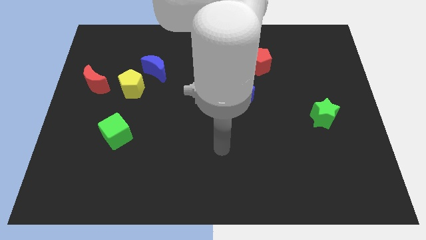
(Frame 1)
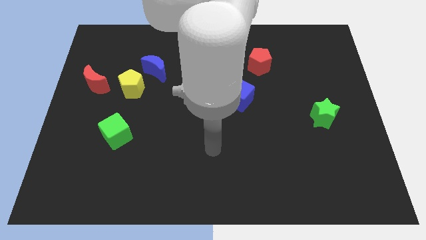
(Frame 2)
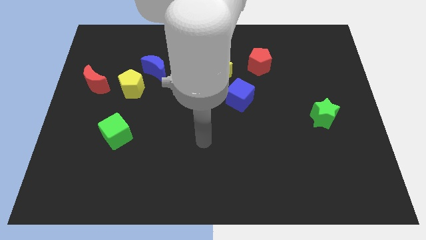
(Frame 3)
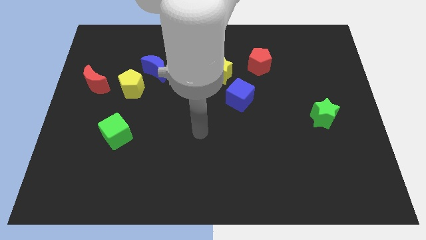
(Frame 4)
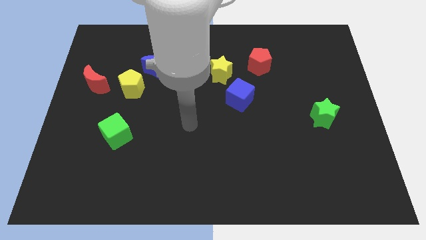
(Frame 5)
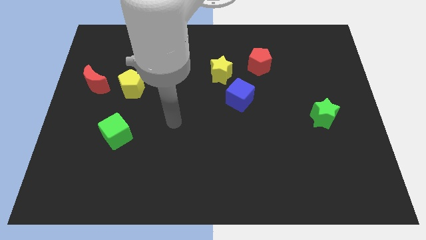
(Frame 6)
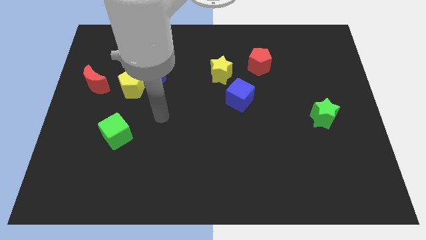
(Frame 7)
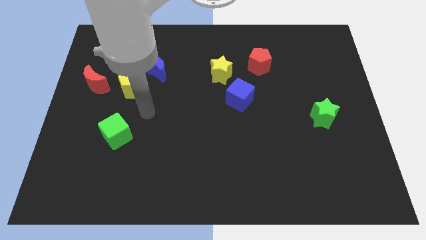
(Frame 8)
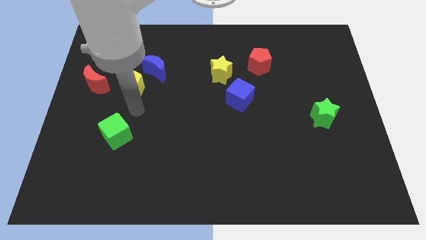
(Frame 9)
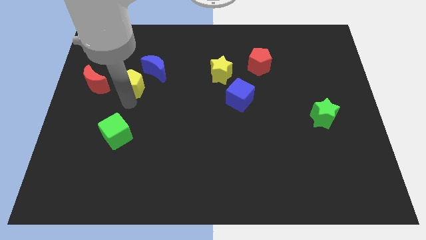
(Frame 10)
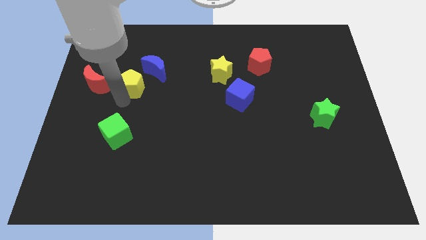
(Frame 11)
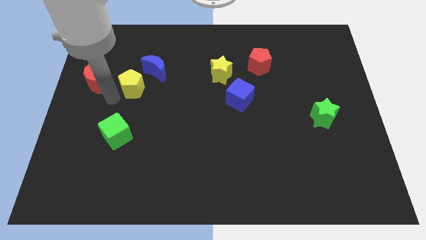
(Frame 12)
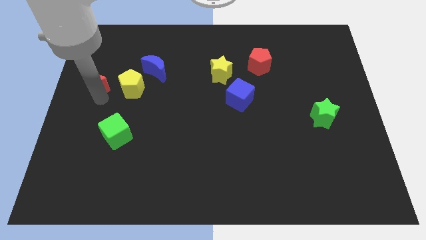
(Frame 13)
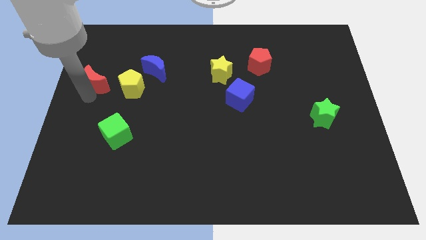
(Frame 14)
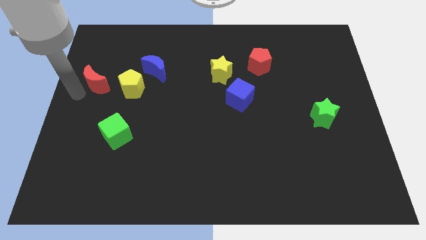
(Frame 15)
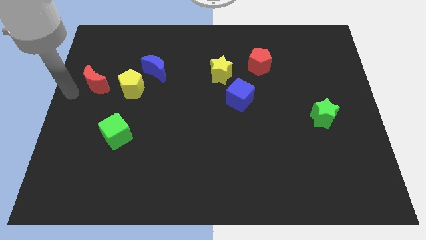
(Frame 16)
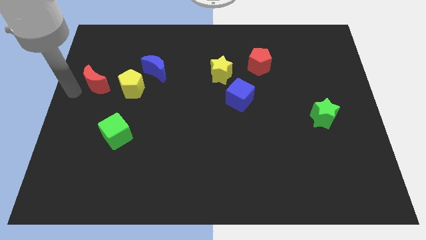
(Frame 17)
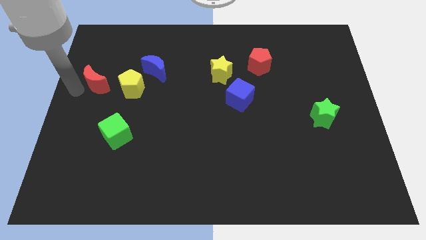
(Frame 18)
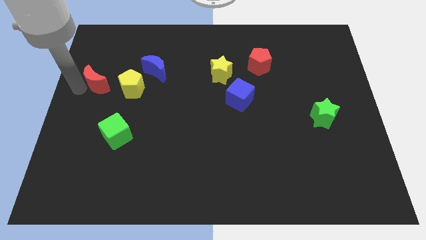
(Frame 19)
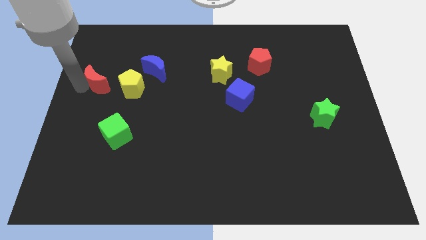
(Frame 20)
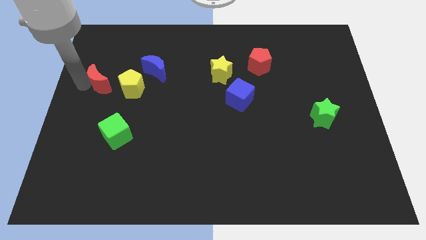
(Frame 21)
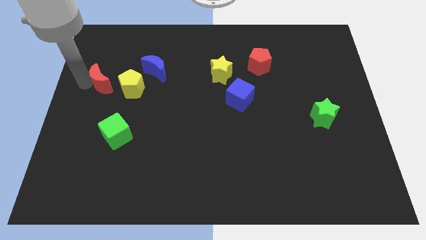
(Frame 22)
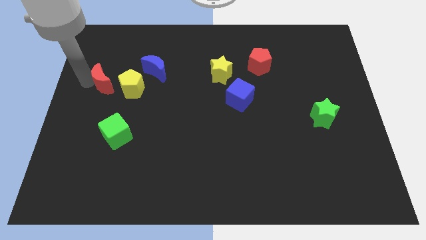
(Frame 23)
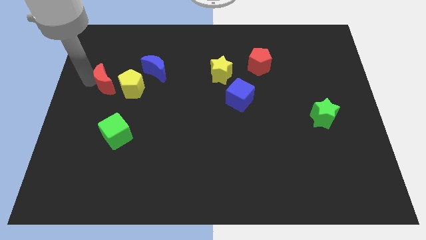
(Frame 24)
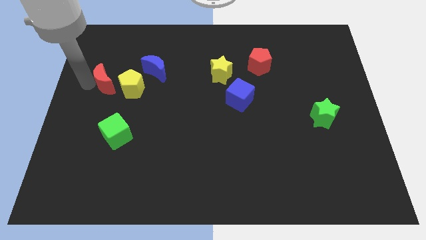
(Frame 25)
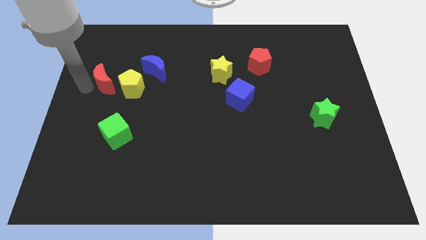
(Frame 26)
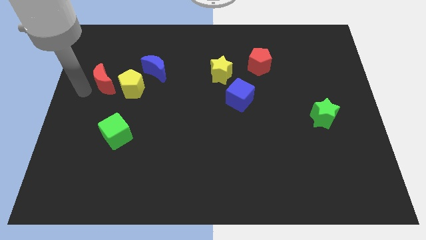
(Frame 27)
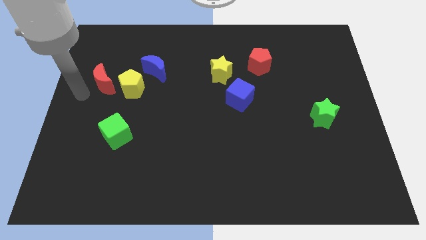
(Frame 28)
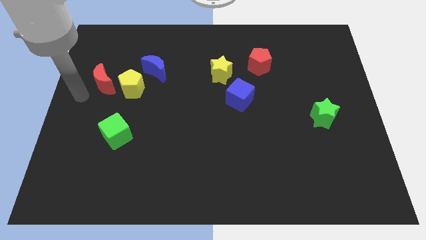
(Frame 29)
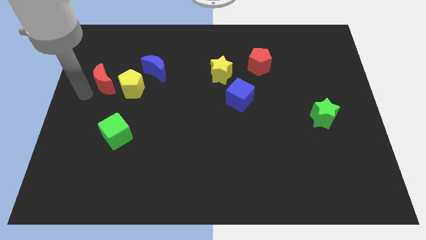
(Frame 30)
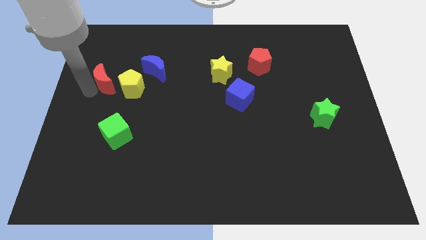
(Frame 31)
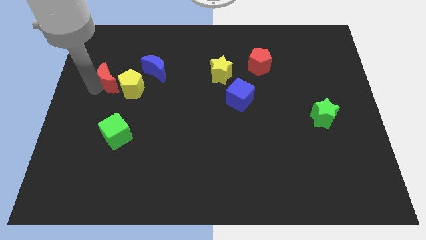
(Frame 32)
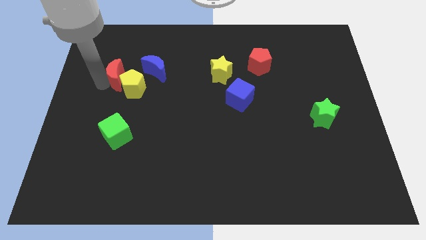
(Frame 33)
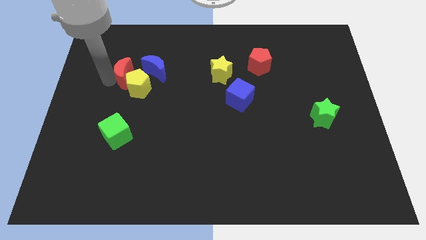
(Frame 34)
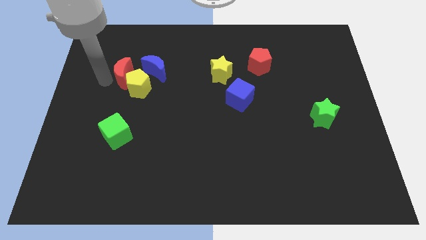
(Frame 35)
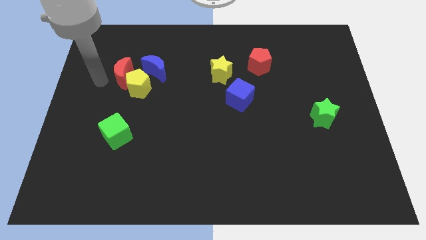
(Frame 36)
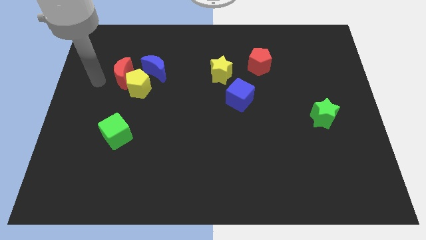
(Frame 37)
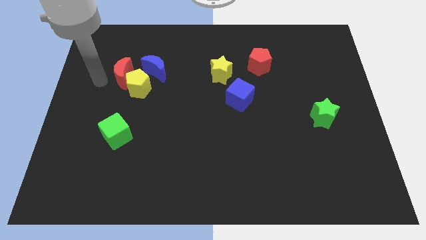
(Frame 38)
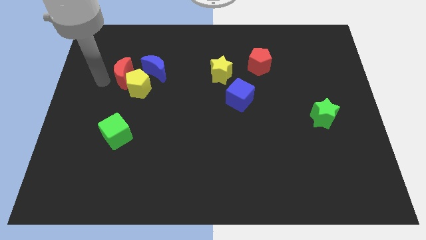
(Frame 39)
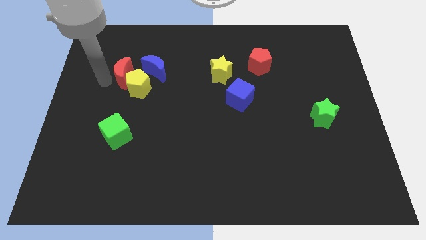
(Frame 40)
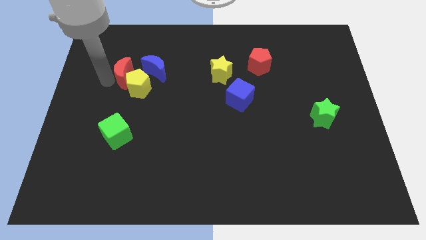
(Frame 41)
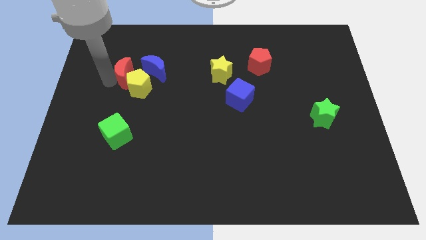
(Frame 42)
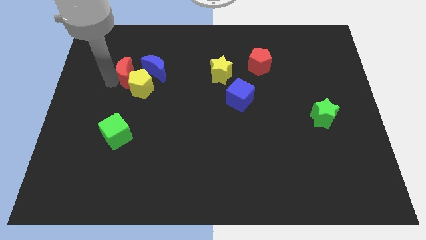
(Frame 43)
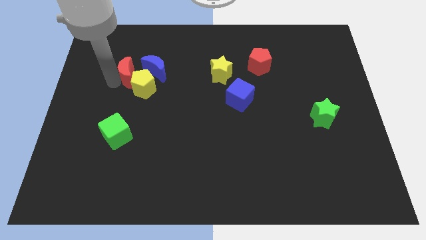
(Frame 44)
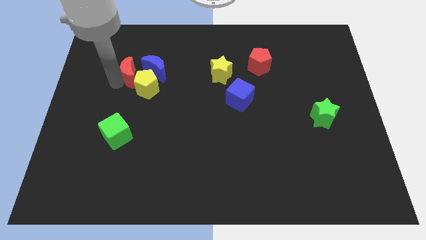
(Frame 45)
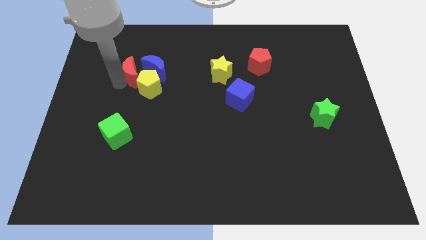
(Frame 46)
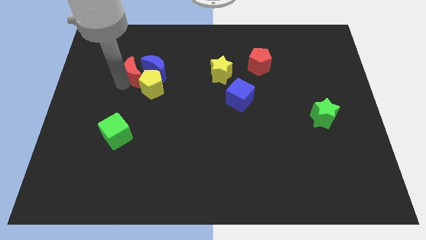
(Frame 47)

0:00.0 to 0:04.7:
put the red moon to the blue moon

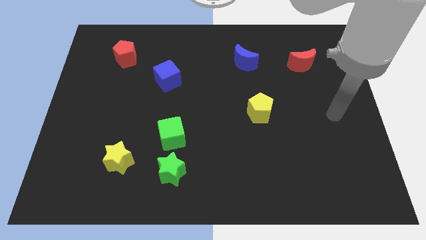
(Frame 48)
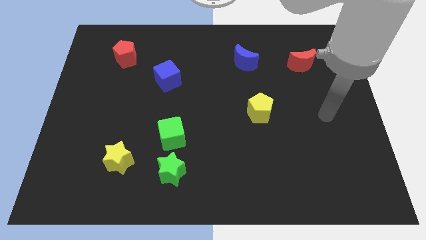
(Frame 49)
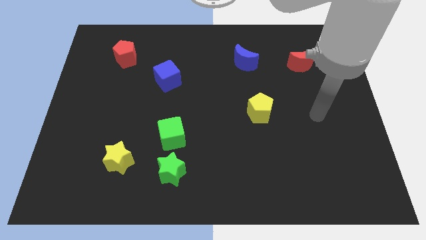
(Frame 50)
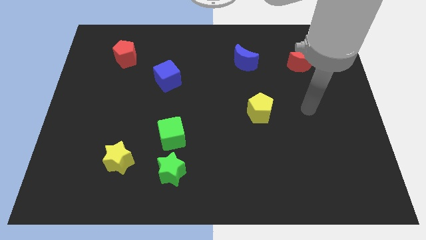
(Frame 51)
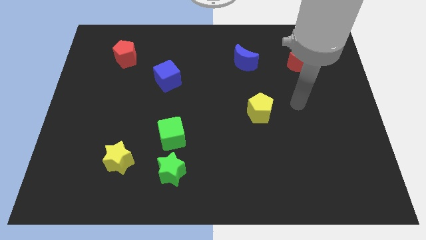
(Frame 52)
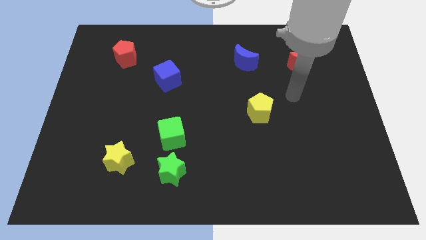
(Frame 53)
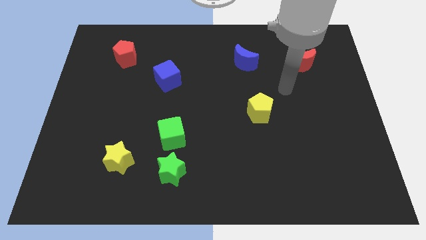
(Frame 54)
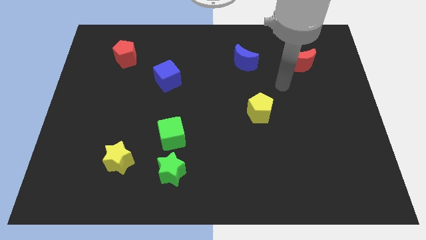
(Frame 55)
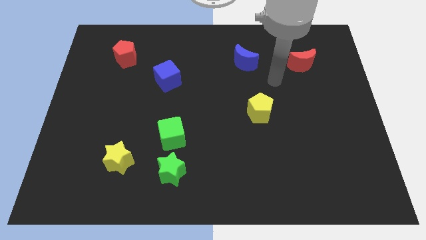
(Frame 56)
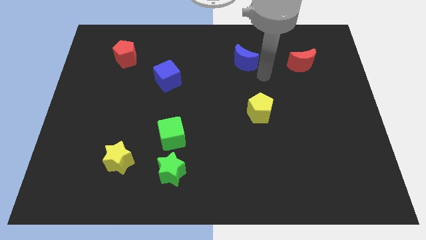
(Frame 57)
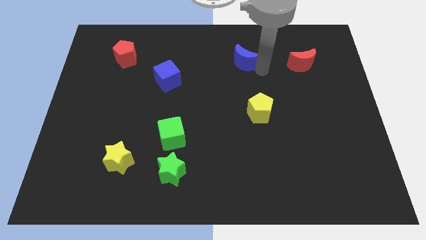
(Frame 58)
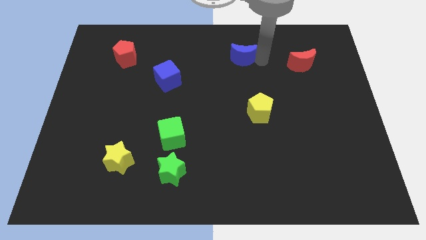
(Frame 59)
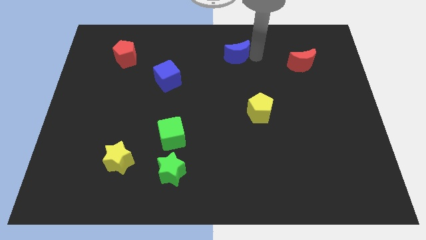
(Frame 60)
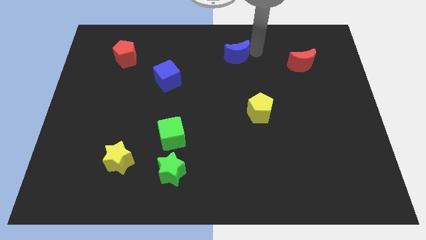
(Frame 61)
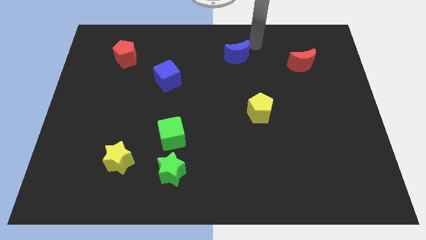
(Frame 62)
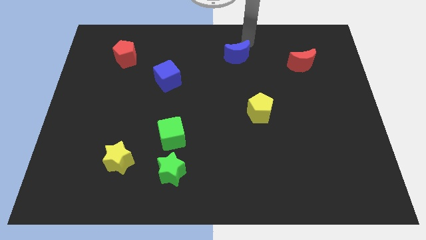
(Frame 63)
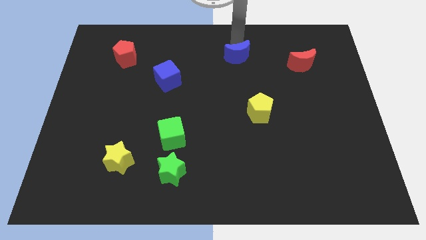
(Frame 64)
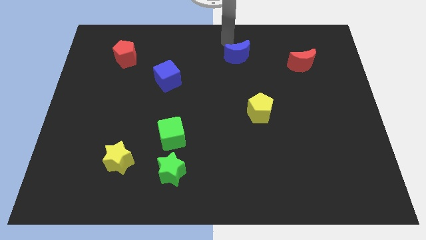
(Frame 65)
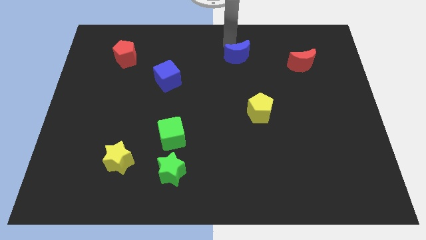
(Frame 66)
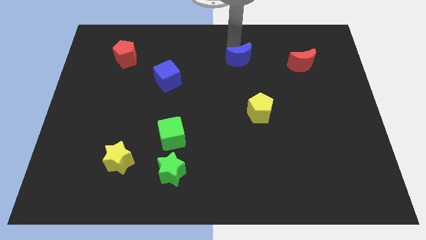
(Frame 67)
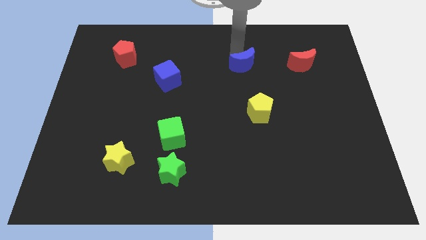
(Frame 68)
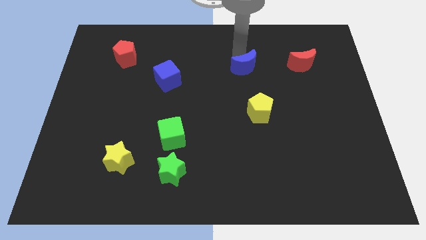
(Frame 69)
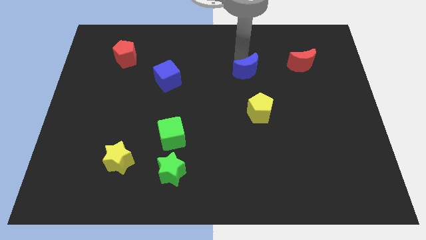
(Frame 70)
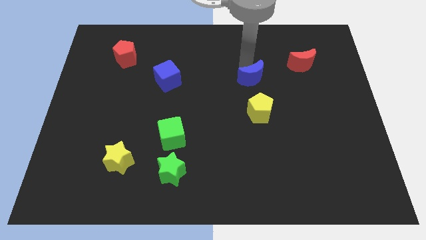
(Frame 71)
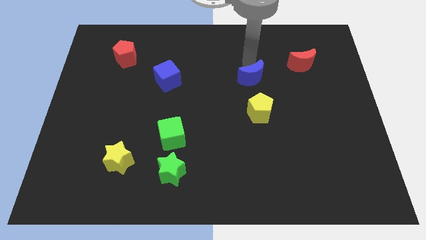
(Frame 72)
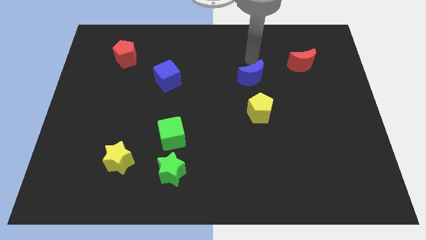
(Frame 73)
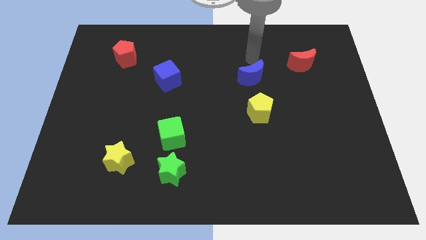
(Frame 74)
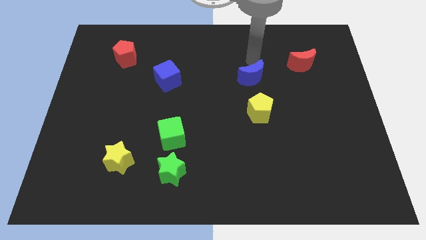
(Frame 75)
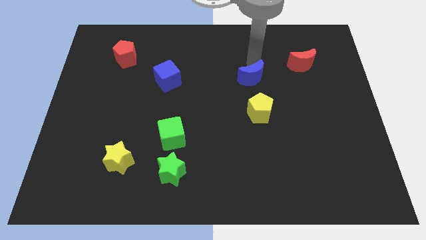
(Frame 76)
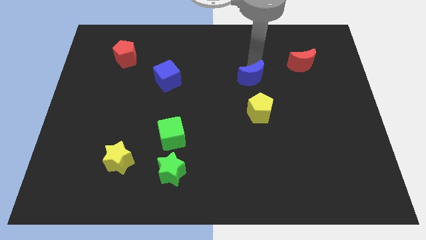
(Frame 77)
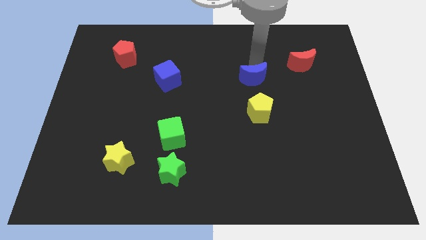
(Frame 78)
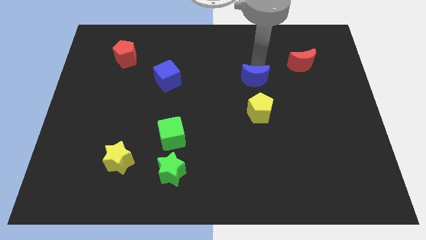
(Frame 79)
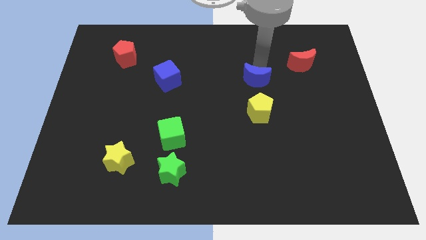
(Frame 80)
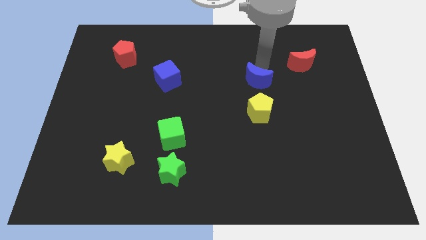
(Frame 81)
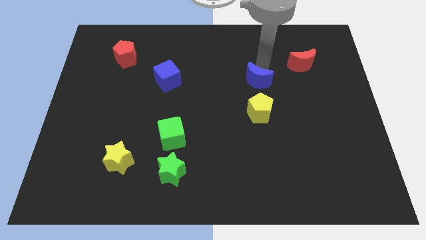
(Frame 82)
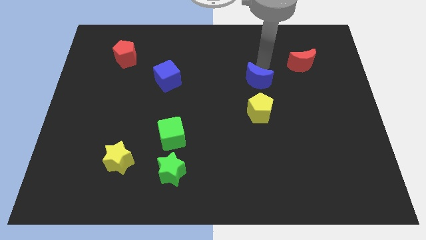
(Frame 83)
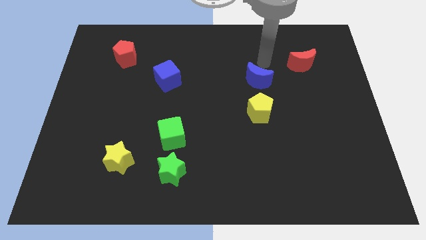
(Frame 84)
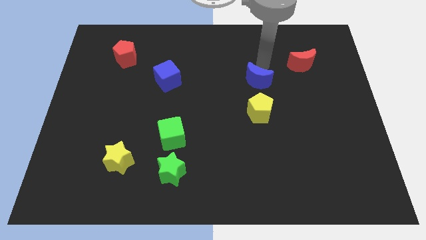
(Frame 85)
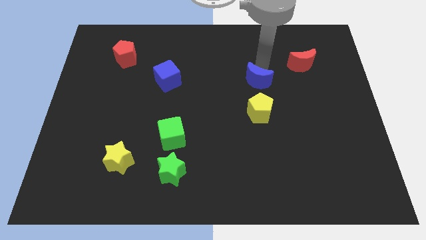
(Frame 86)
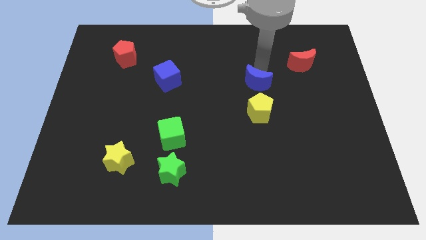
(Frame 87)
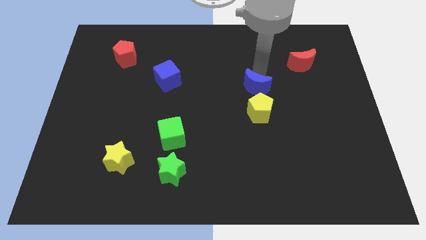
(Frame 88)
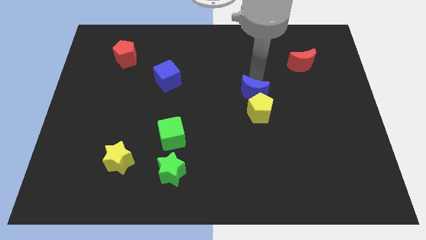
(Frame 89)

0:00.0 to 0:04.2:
move the blue moon close to the yellow pentagon
